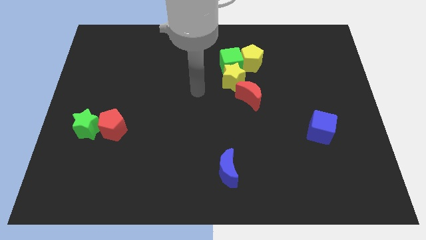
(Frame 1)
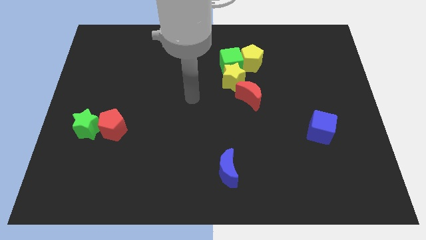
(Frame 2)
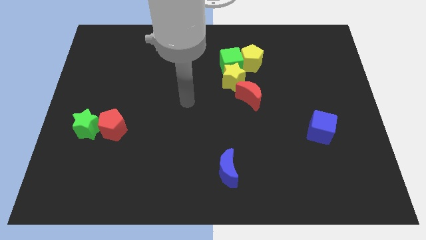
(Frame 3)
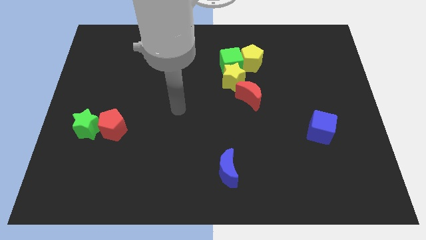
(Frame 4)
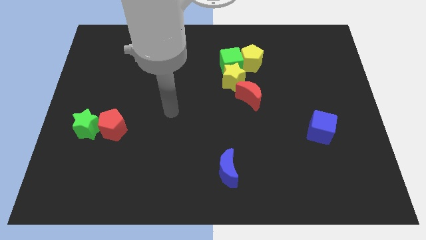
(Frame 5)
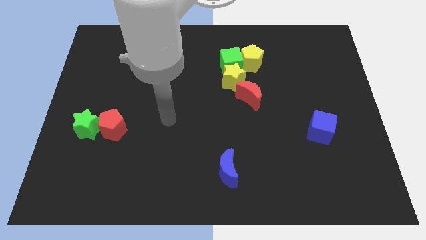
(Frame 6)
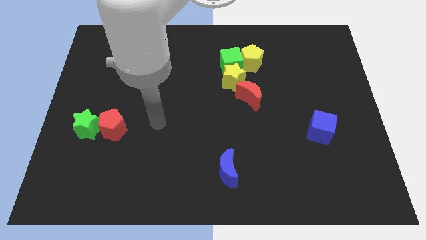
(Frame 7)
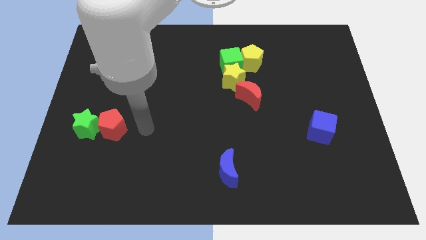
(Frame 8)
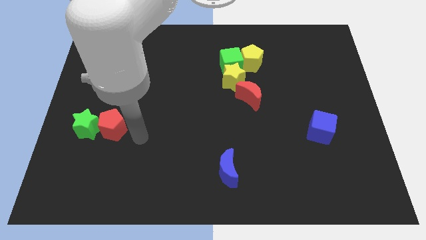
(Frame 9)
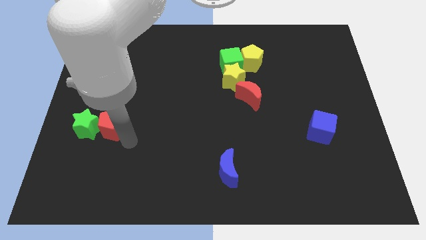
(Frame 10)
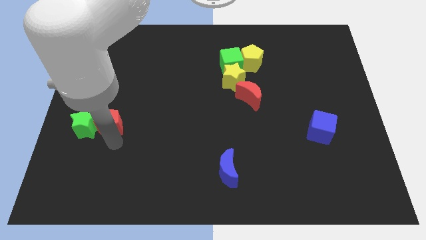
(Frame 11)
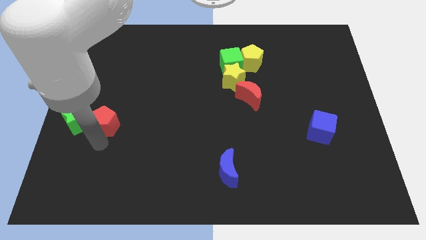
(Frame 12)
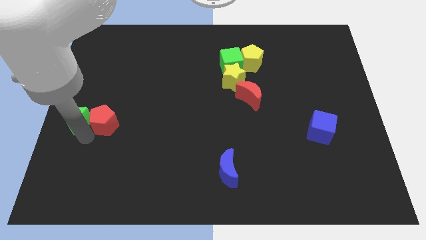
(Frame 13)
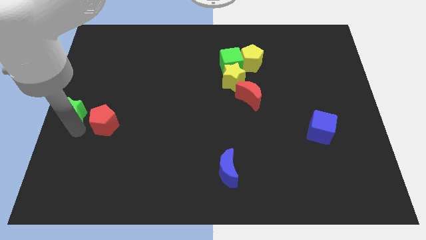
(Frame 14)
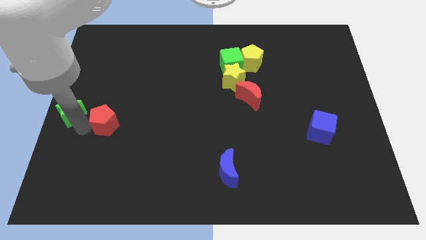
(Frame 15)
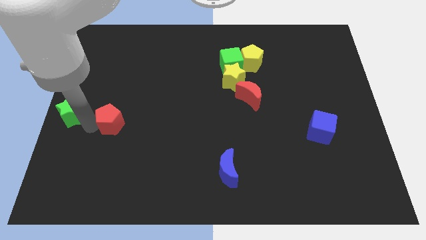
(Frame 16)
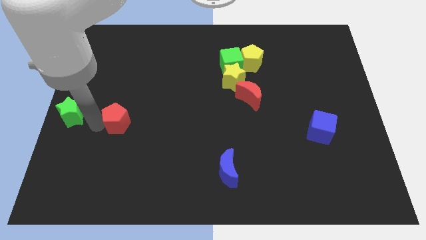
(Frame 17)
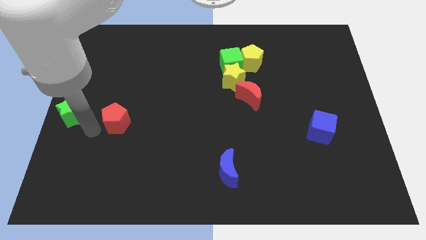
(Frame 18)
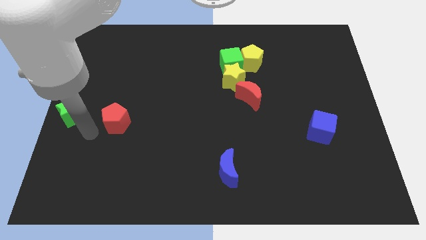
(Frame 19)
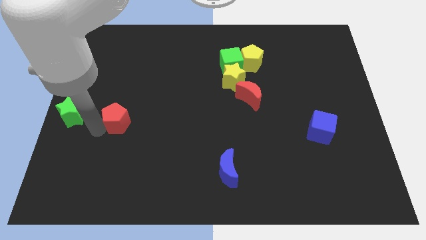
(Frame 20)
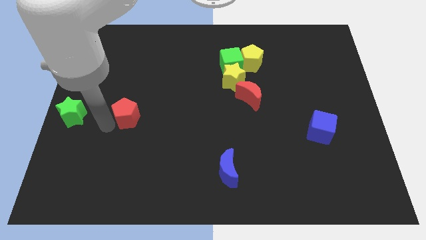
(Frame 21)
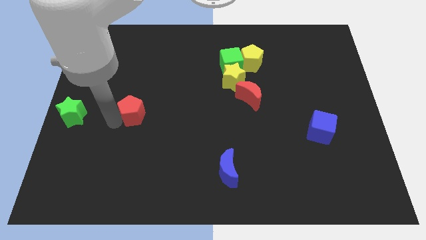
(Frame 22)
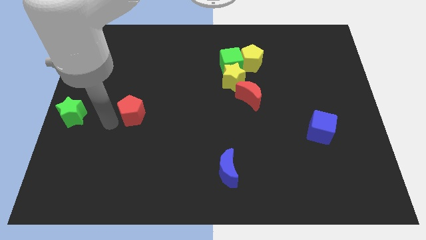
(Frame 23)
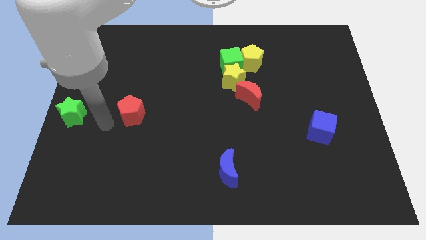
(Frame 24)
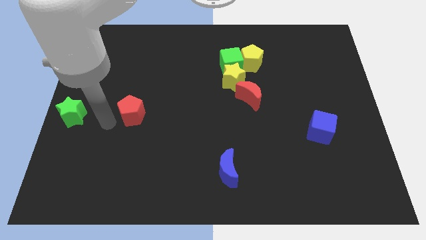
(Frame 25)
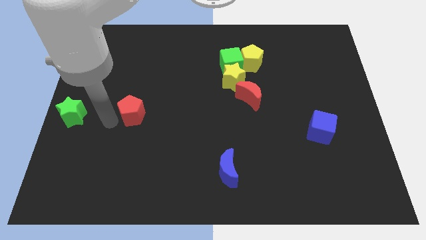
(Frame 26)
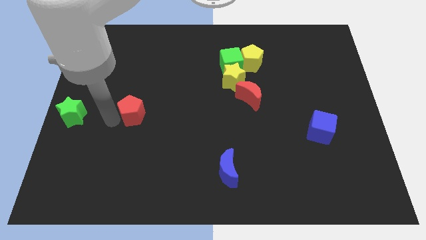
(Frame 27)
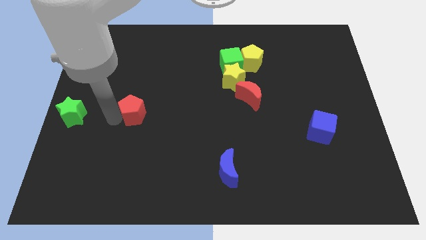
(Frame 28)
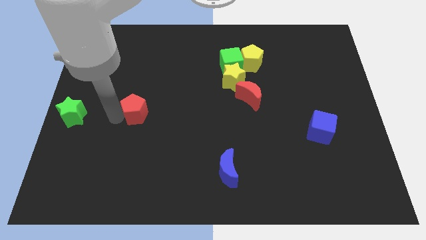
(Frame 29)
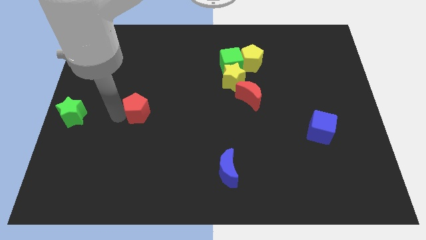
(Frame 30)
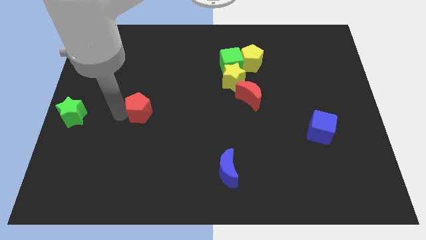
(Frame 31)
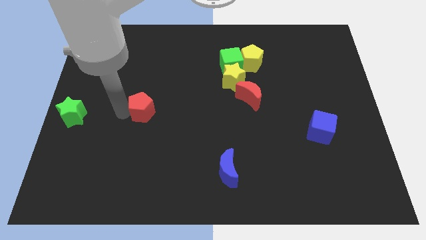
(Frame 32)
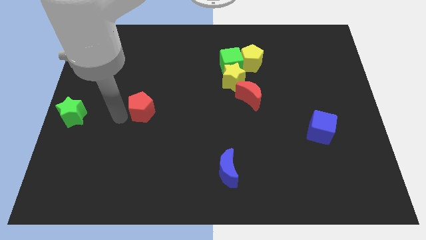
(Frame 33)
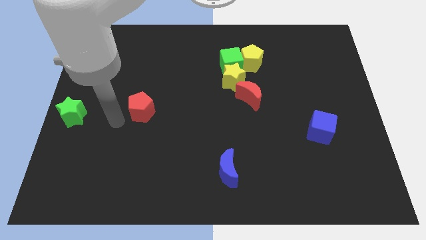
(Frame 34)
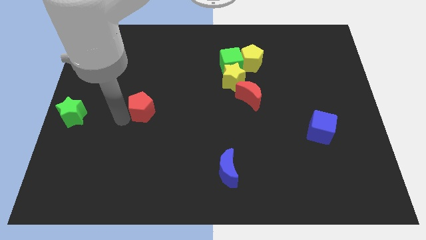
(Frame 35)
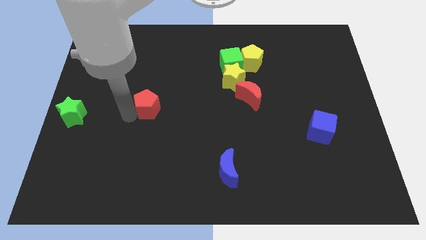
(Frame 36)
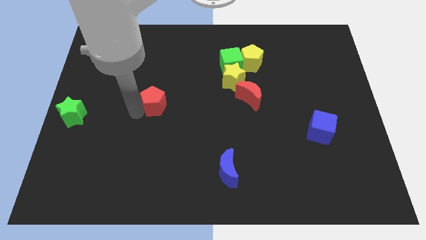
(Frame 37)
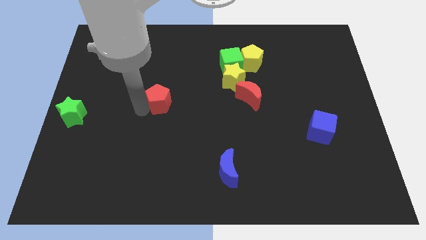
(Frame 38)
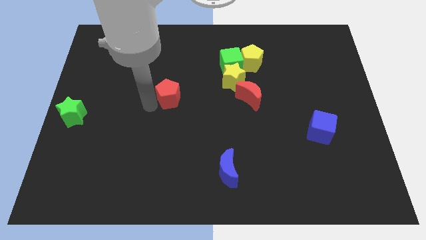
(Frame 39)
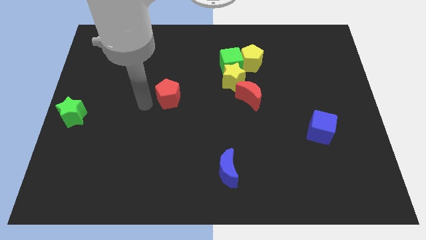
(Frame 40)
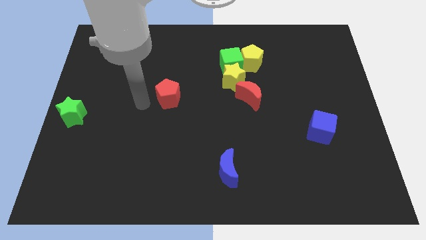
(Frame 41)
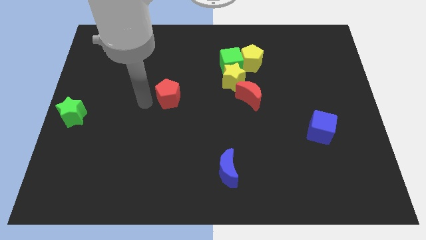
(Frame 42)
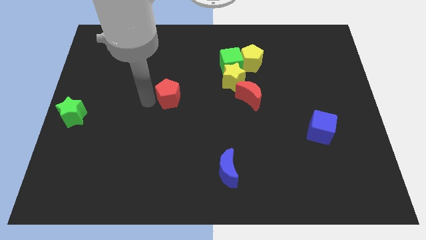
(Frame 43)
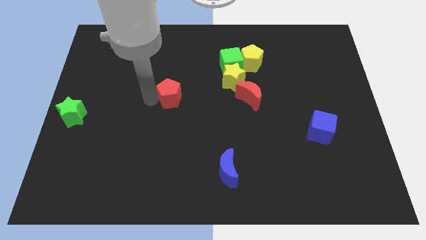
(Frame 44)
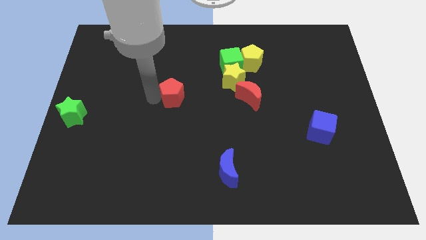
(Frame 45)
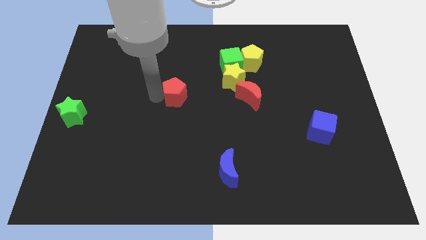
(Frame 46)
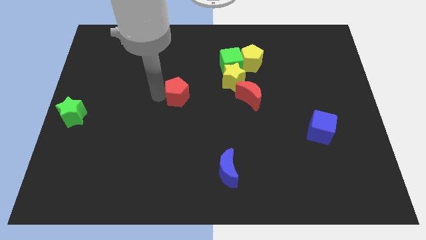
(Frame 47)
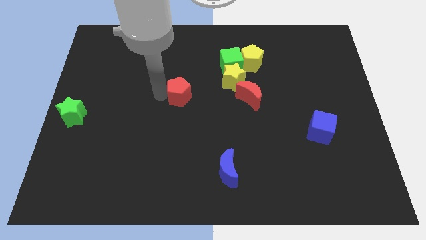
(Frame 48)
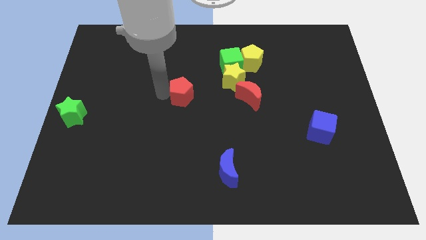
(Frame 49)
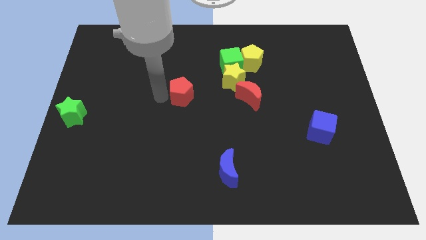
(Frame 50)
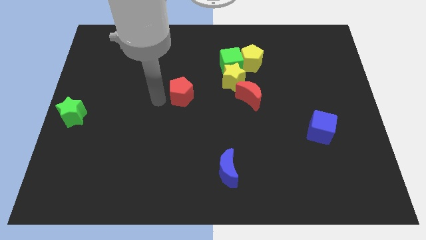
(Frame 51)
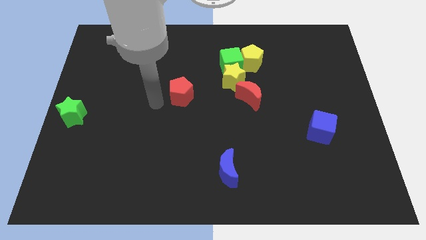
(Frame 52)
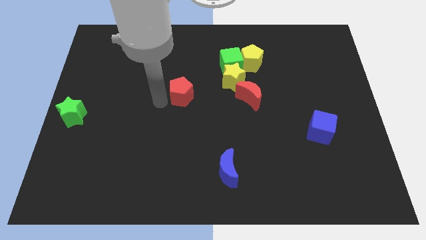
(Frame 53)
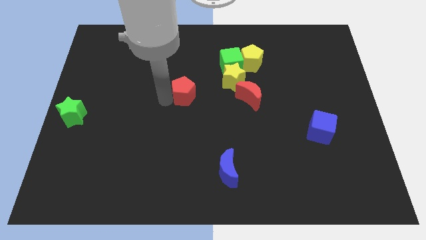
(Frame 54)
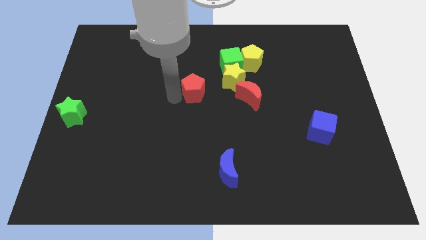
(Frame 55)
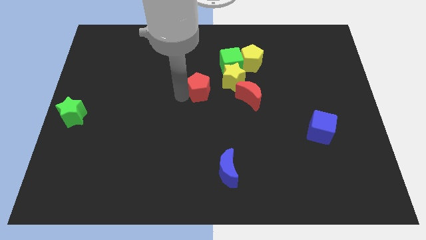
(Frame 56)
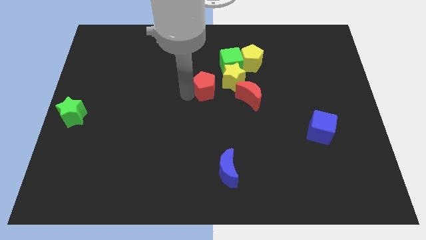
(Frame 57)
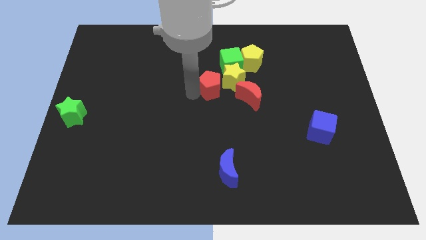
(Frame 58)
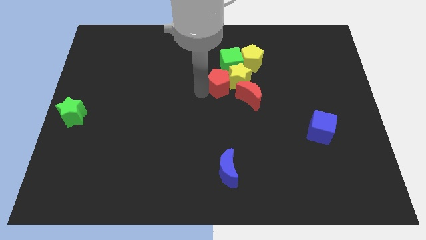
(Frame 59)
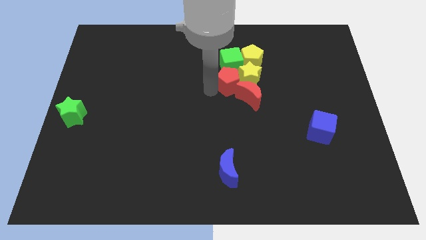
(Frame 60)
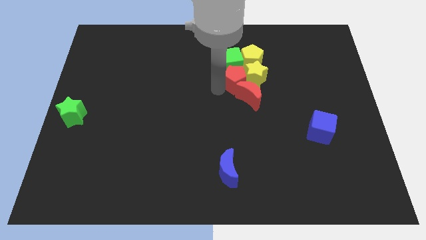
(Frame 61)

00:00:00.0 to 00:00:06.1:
push the red pentagon to the green cube

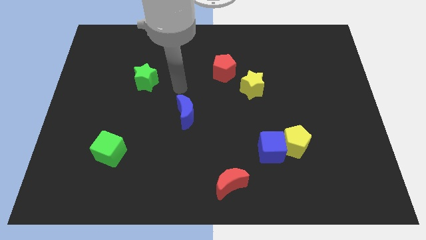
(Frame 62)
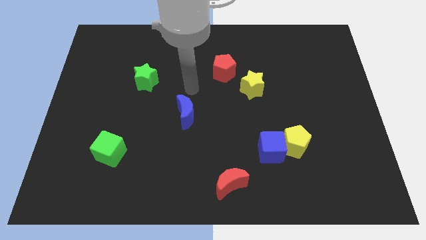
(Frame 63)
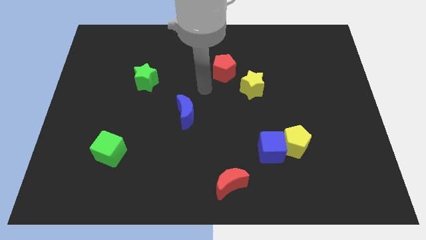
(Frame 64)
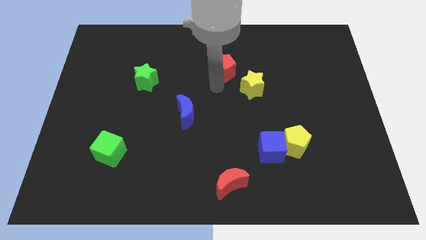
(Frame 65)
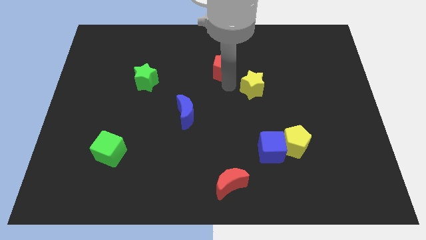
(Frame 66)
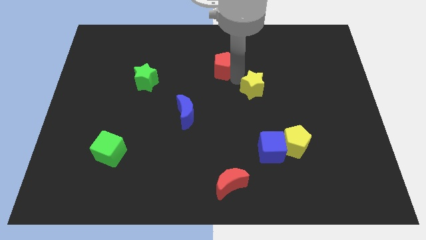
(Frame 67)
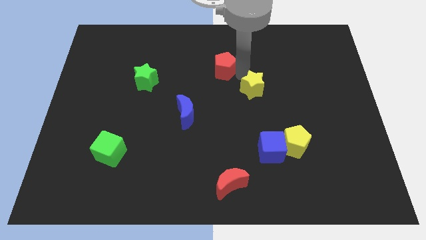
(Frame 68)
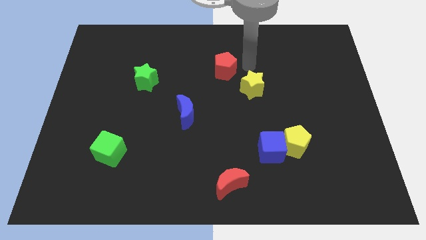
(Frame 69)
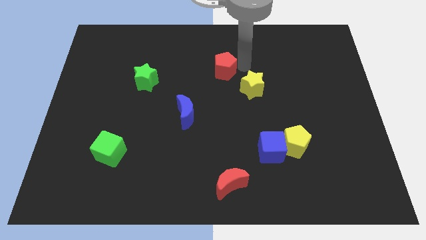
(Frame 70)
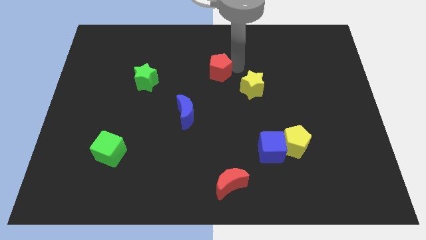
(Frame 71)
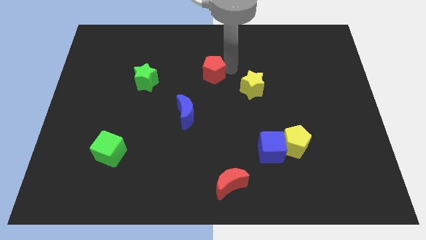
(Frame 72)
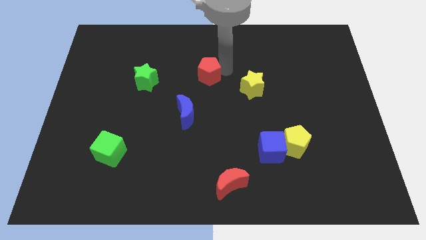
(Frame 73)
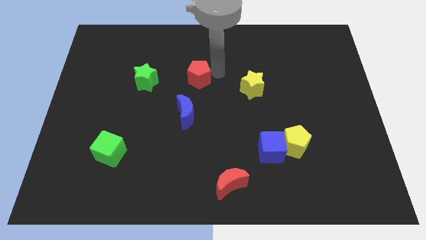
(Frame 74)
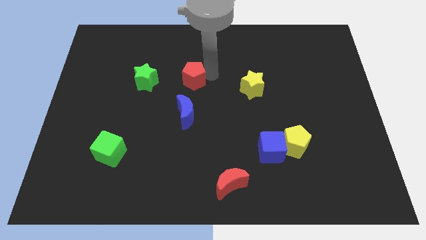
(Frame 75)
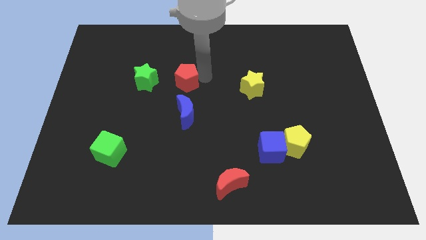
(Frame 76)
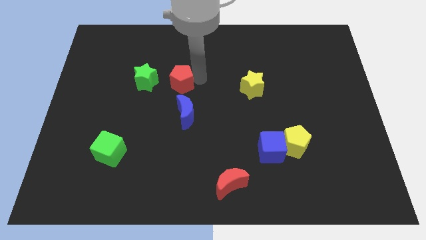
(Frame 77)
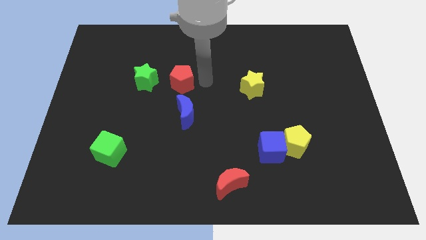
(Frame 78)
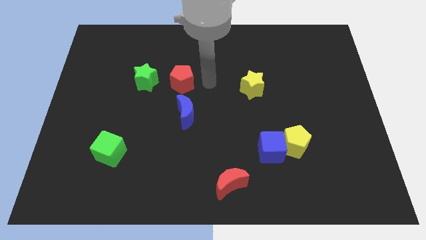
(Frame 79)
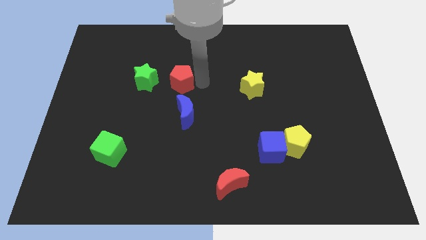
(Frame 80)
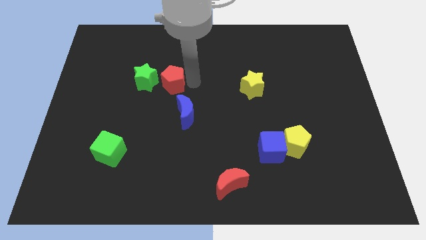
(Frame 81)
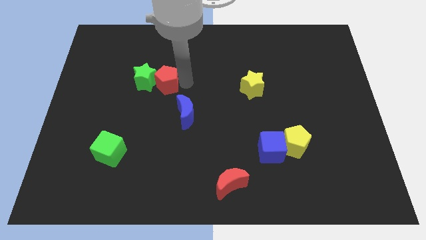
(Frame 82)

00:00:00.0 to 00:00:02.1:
slide the red pentagon towards the green star

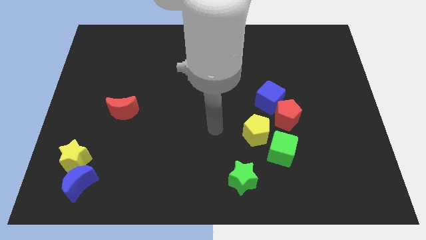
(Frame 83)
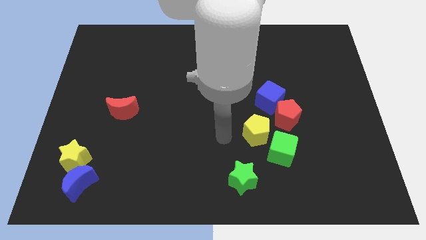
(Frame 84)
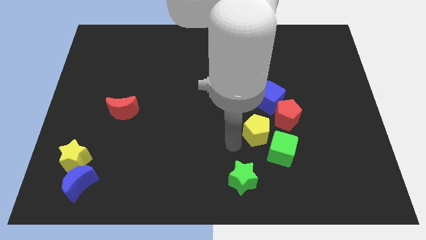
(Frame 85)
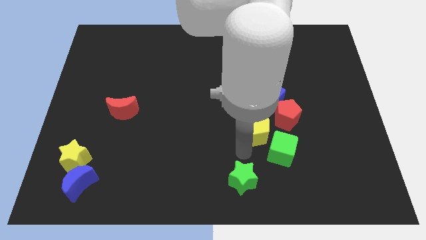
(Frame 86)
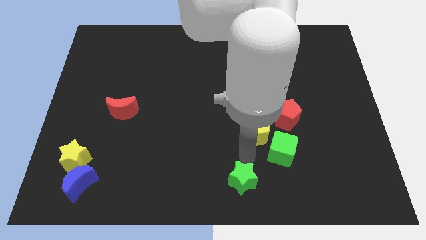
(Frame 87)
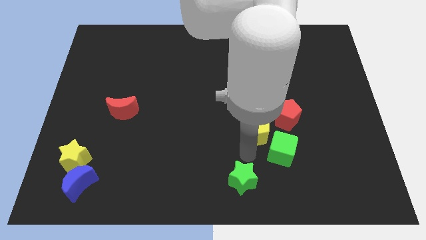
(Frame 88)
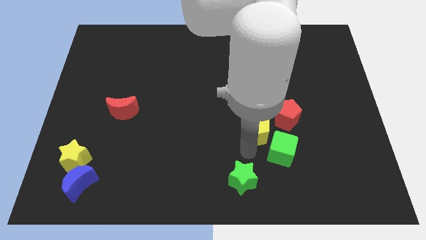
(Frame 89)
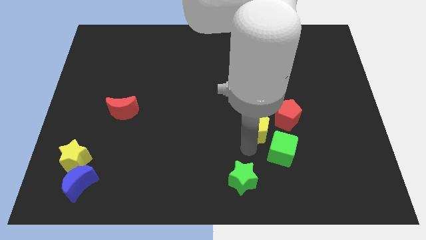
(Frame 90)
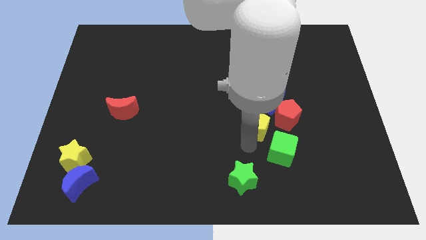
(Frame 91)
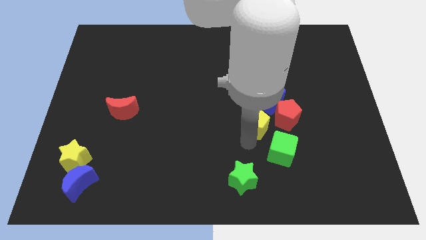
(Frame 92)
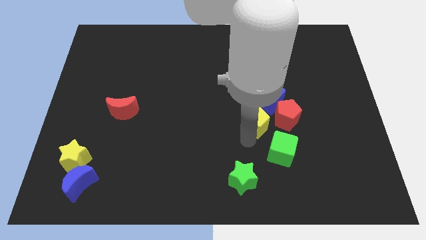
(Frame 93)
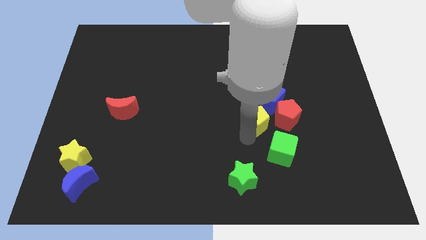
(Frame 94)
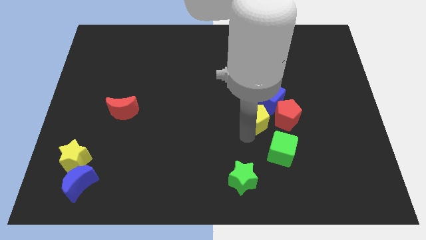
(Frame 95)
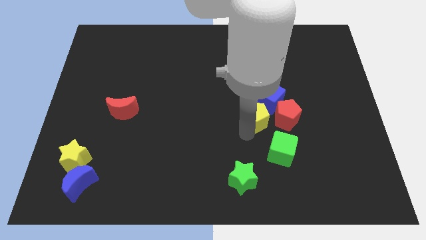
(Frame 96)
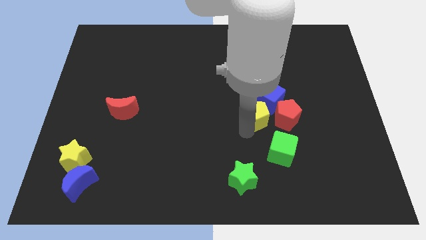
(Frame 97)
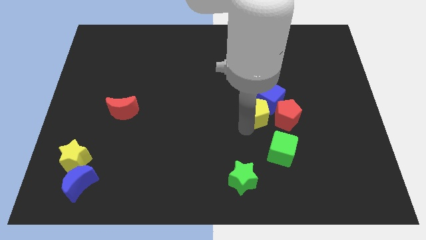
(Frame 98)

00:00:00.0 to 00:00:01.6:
move the yellow pentagon close to the blue cube
